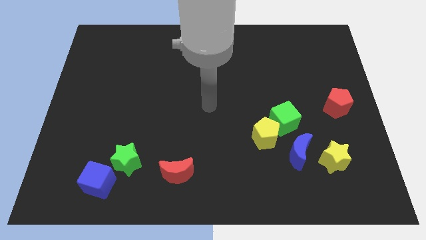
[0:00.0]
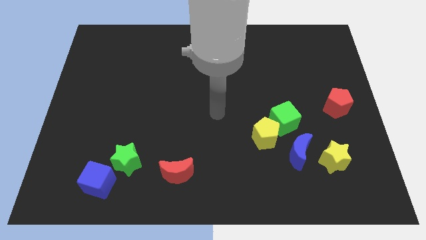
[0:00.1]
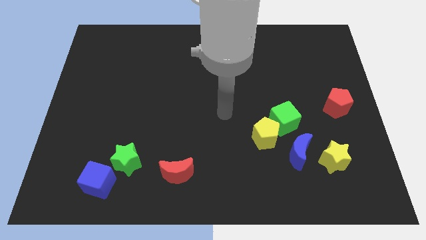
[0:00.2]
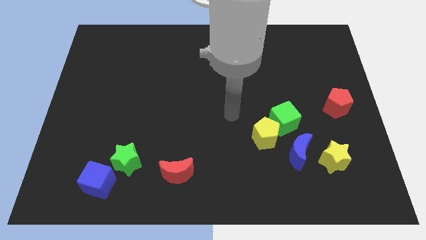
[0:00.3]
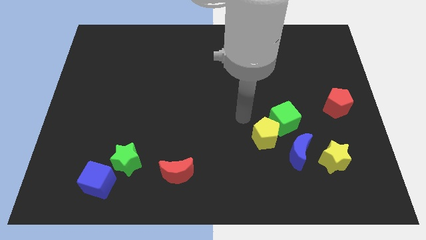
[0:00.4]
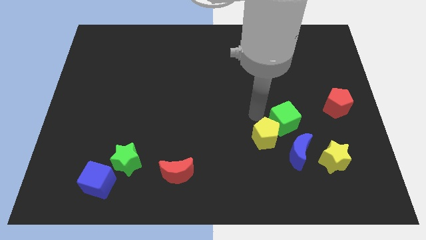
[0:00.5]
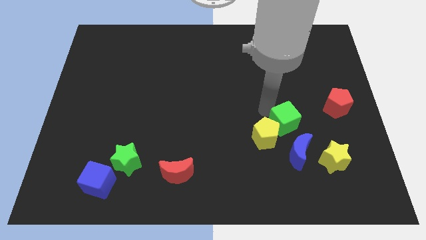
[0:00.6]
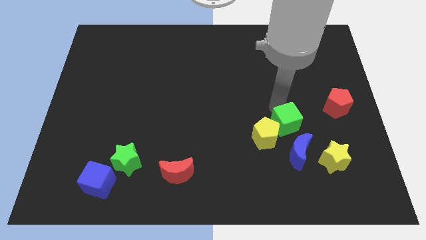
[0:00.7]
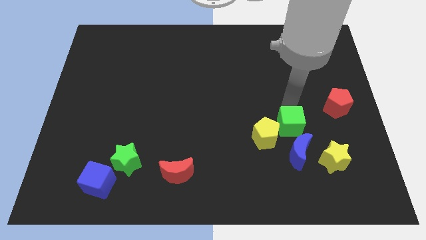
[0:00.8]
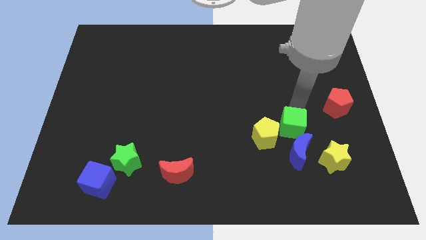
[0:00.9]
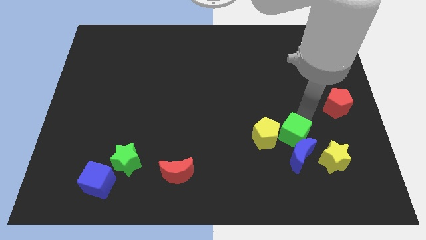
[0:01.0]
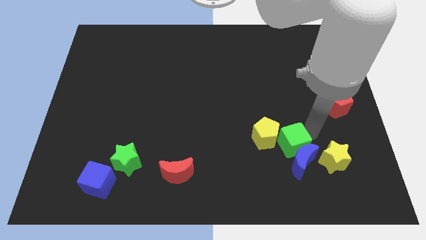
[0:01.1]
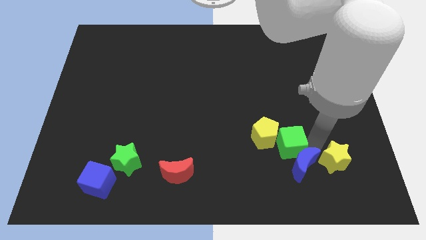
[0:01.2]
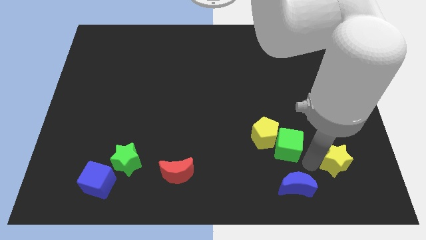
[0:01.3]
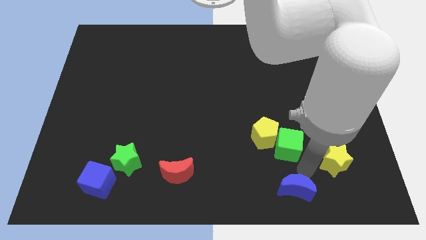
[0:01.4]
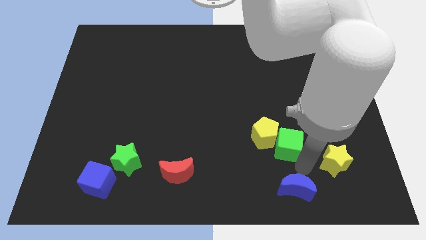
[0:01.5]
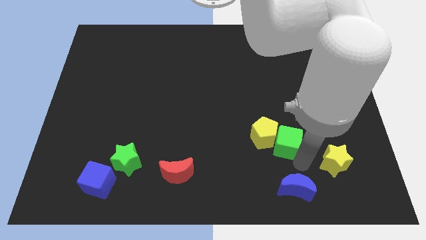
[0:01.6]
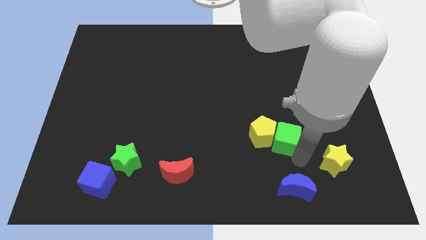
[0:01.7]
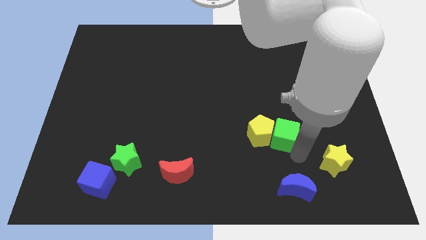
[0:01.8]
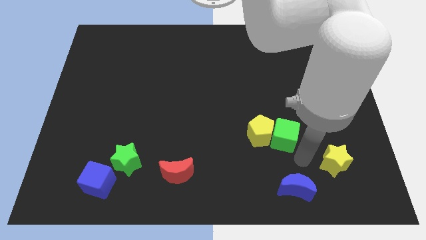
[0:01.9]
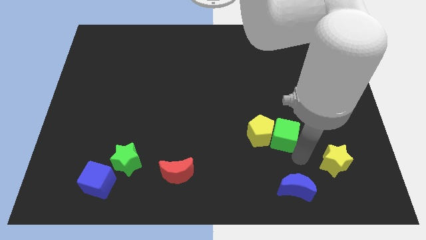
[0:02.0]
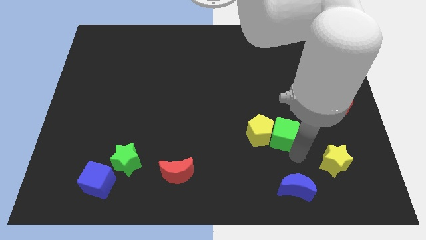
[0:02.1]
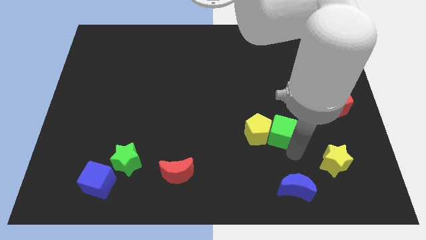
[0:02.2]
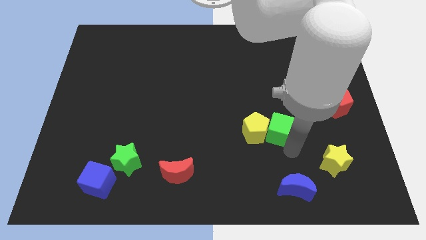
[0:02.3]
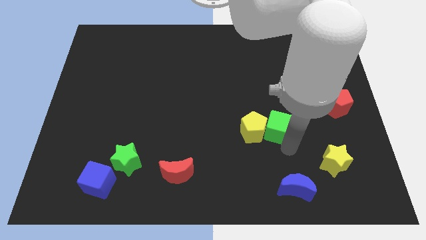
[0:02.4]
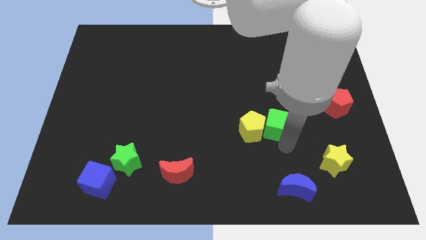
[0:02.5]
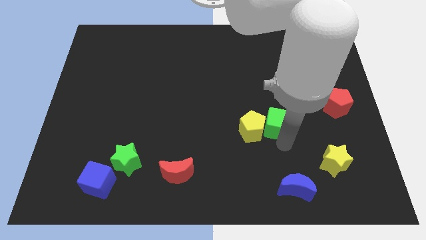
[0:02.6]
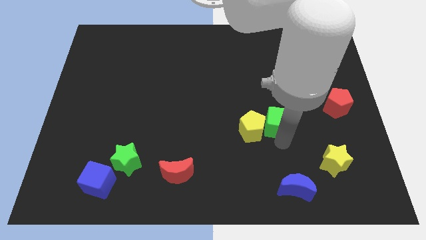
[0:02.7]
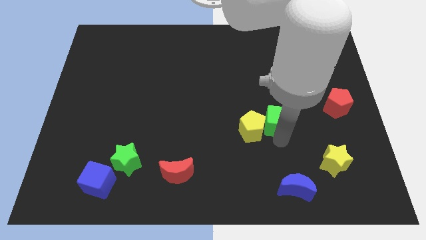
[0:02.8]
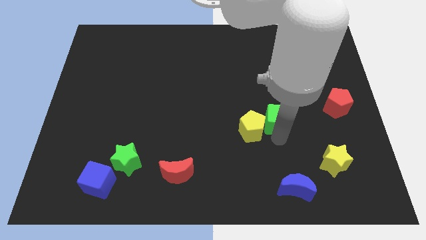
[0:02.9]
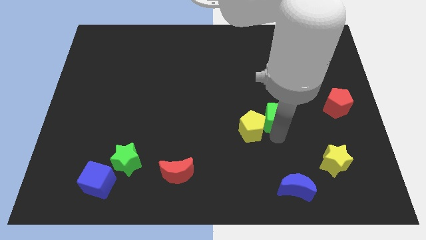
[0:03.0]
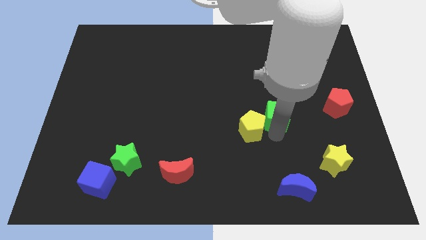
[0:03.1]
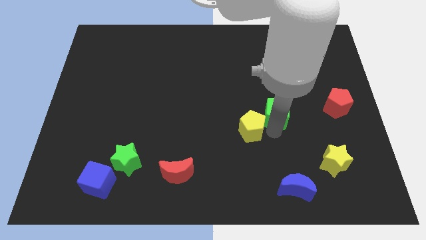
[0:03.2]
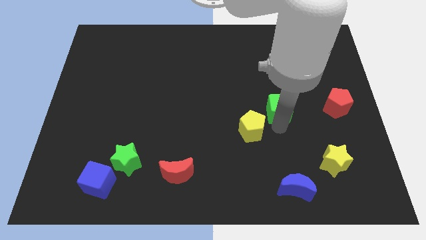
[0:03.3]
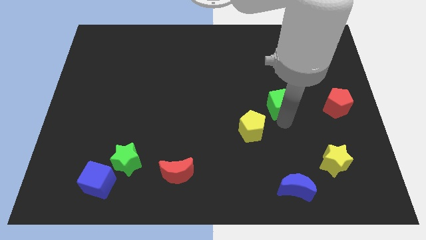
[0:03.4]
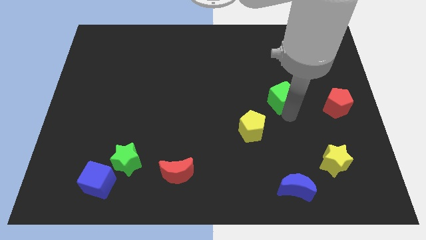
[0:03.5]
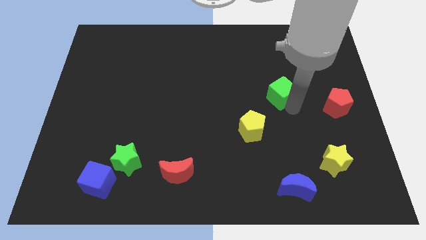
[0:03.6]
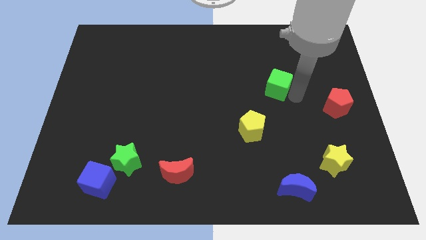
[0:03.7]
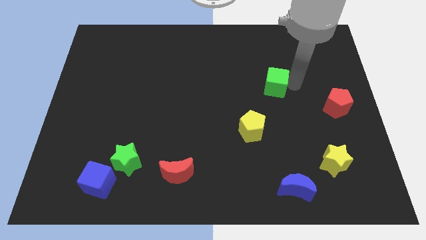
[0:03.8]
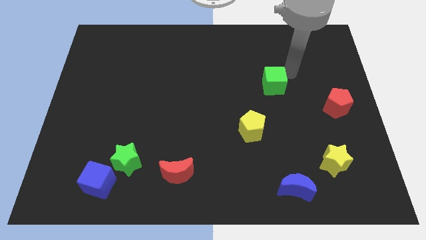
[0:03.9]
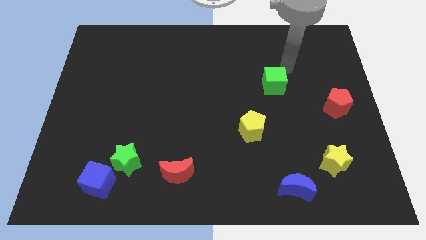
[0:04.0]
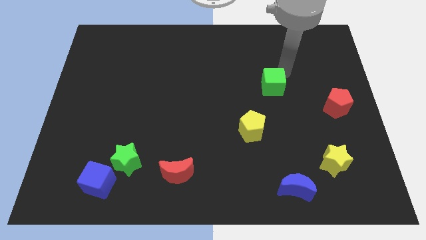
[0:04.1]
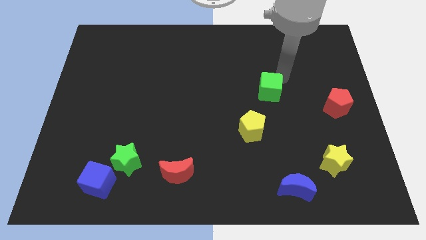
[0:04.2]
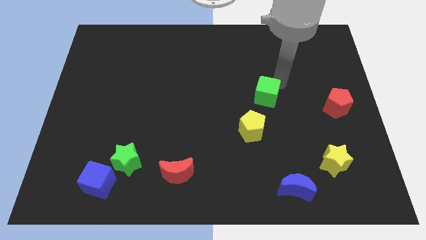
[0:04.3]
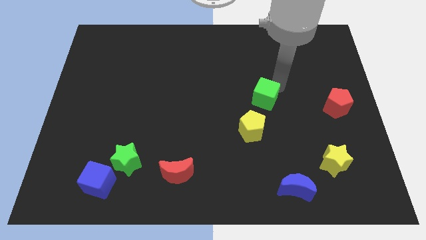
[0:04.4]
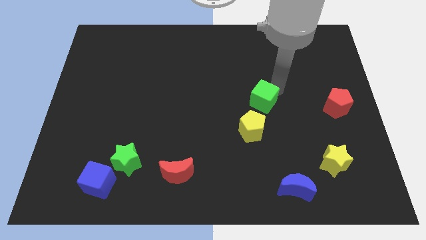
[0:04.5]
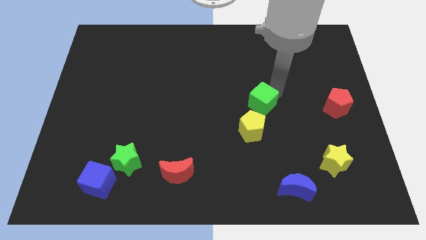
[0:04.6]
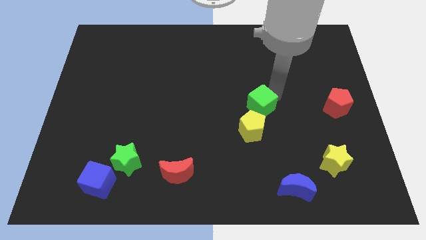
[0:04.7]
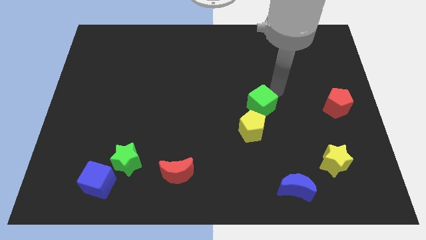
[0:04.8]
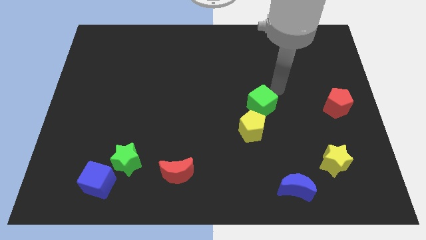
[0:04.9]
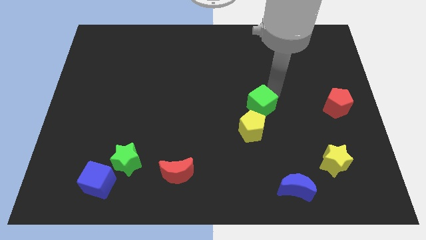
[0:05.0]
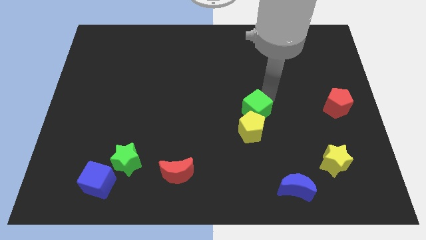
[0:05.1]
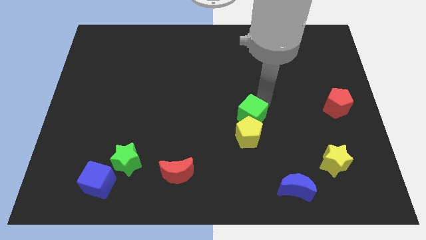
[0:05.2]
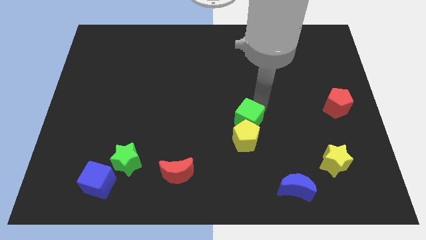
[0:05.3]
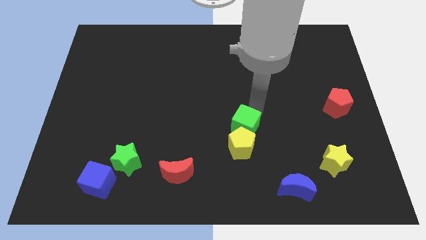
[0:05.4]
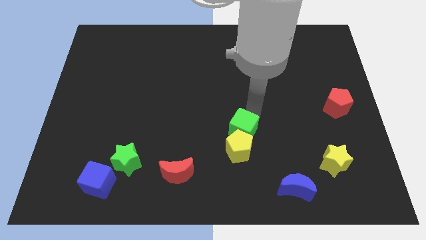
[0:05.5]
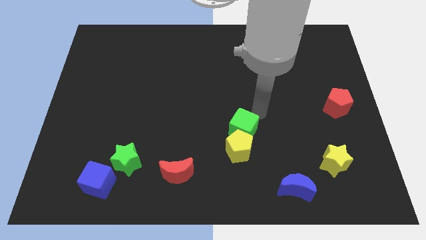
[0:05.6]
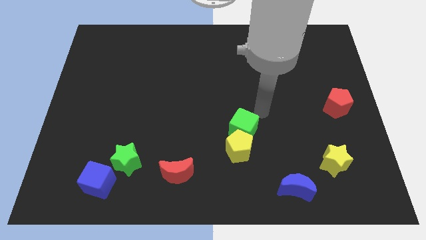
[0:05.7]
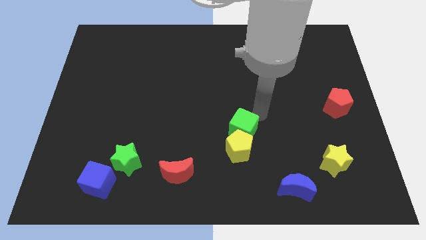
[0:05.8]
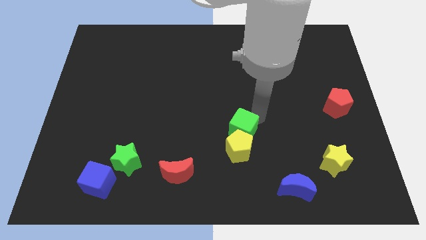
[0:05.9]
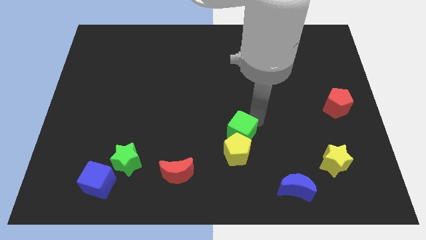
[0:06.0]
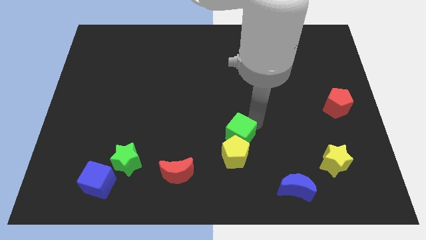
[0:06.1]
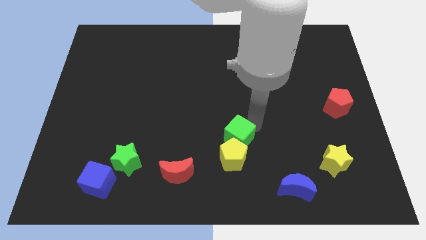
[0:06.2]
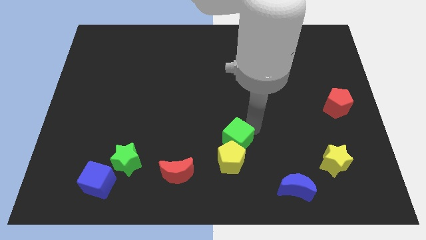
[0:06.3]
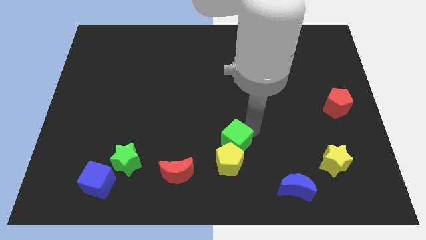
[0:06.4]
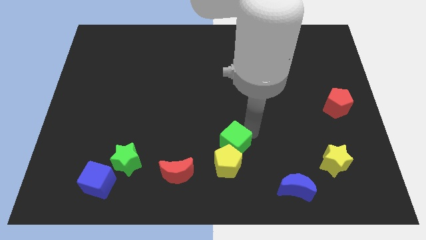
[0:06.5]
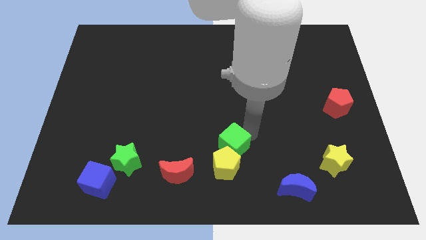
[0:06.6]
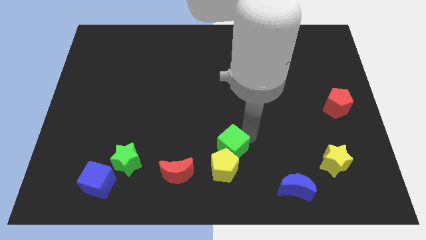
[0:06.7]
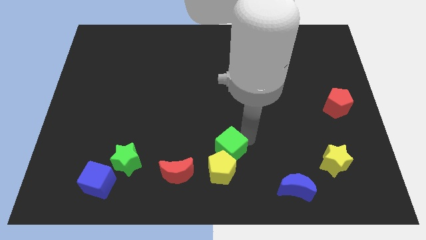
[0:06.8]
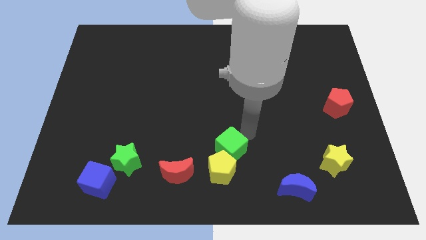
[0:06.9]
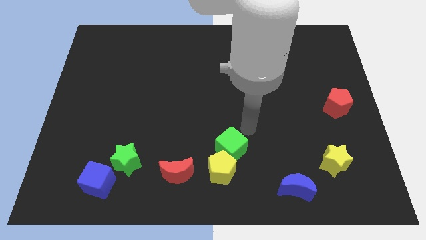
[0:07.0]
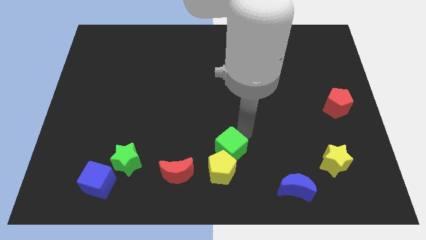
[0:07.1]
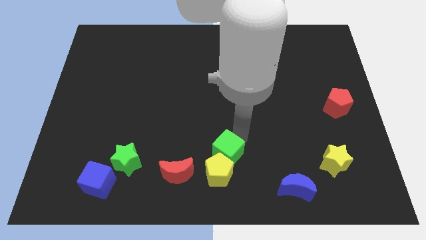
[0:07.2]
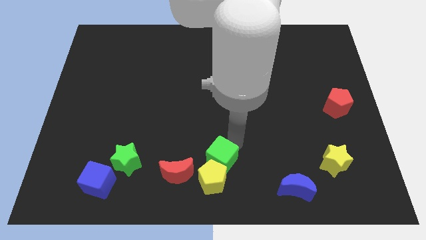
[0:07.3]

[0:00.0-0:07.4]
push the green cube to the bottom
